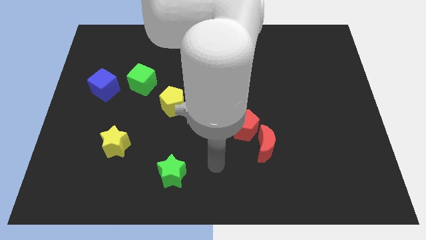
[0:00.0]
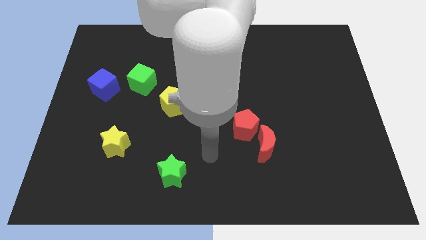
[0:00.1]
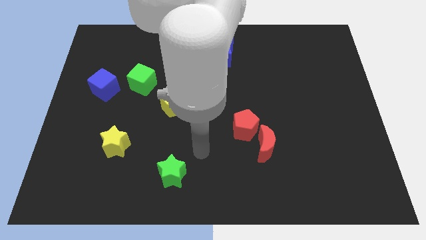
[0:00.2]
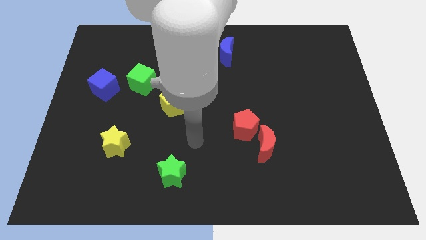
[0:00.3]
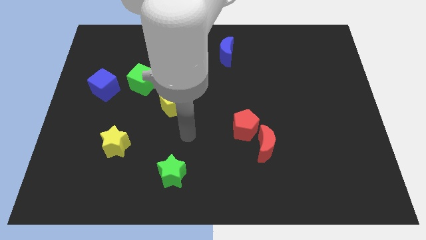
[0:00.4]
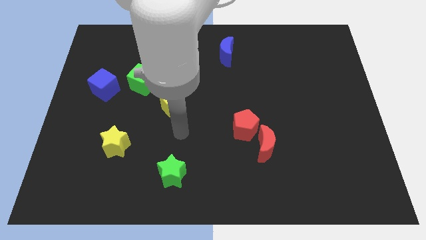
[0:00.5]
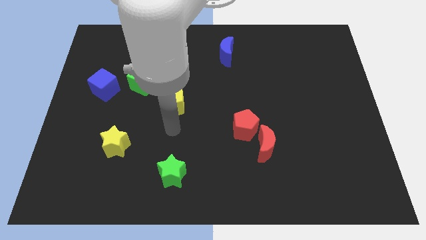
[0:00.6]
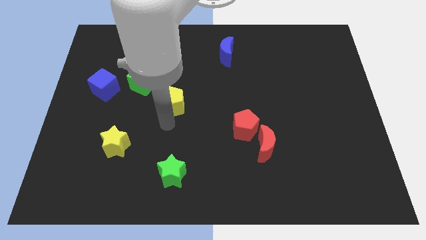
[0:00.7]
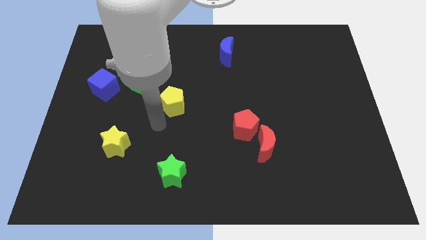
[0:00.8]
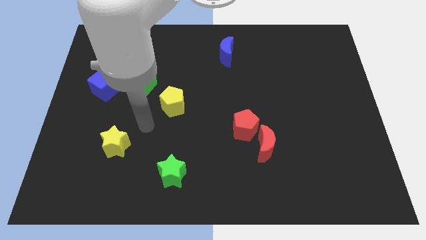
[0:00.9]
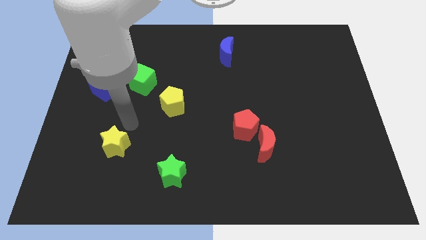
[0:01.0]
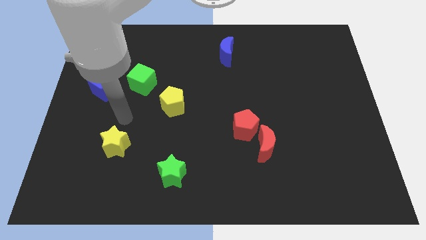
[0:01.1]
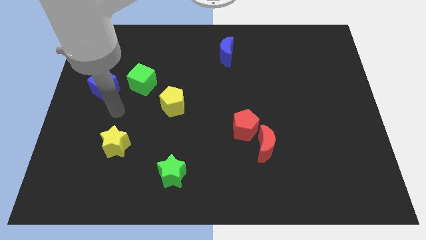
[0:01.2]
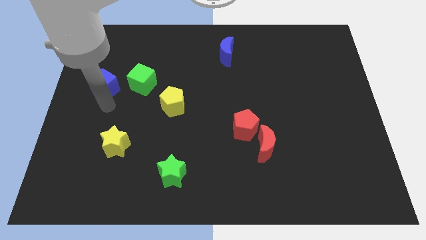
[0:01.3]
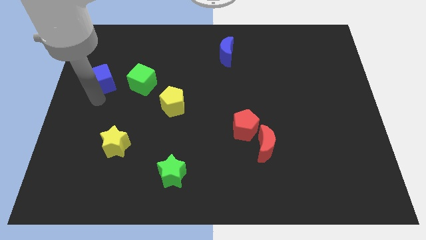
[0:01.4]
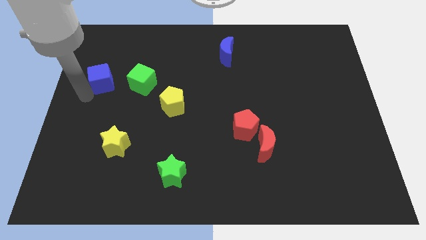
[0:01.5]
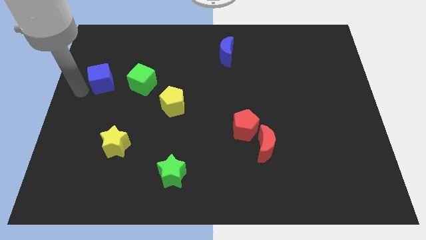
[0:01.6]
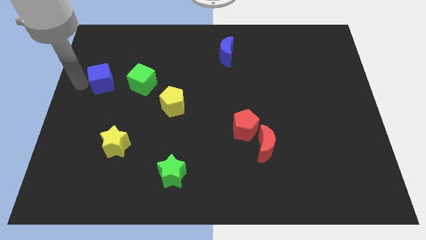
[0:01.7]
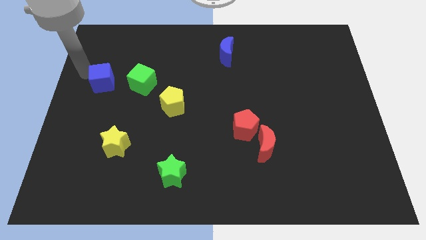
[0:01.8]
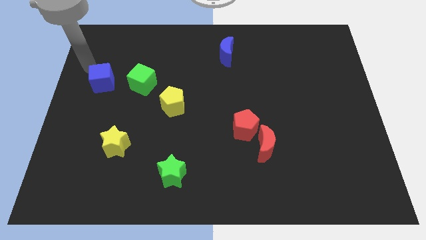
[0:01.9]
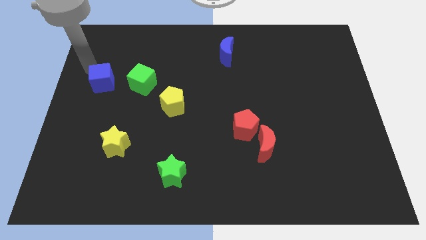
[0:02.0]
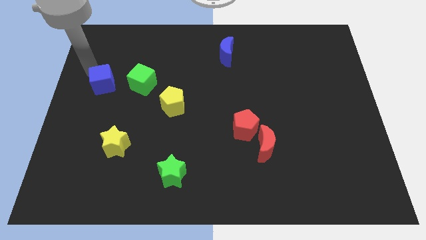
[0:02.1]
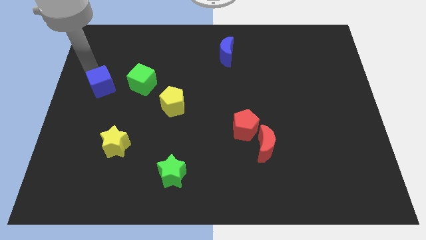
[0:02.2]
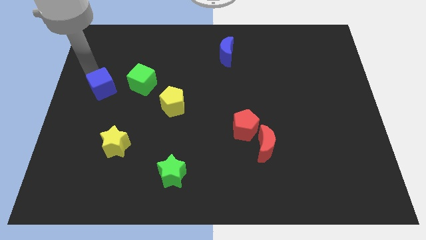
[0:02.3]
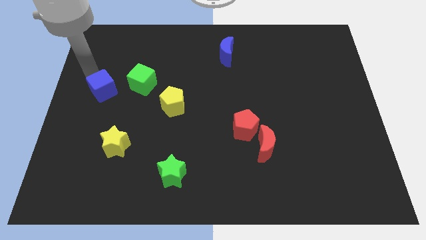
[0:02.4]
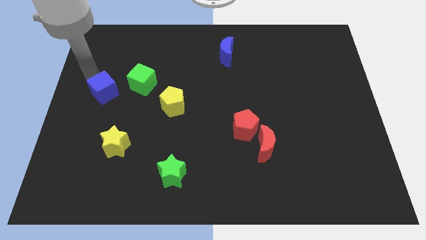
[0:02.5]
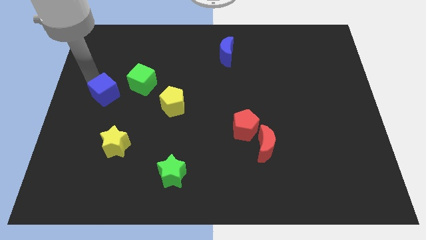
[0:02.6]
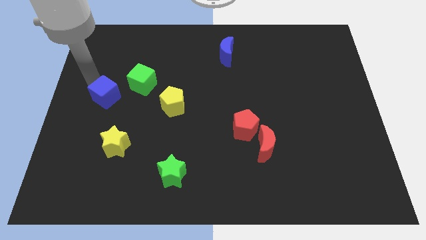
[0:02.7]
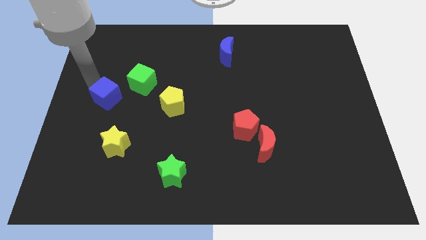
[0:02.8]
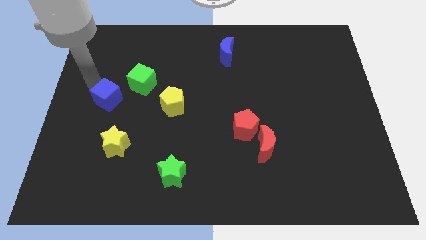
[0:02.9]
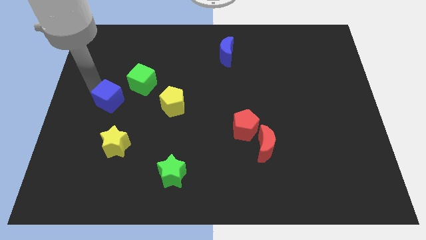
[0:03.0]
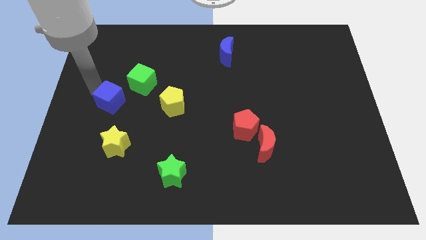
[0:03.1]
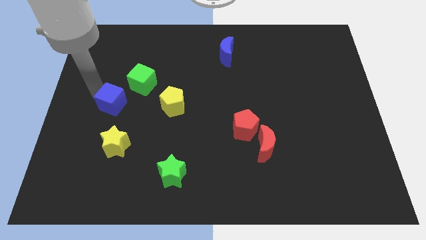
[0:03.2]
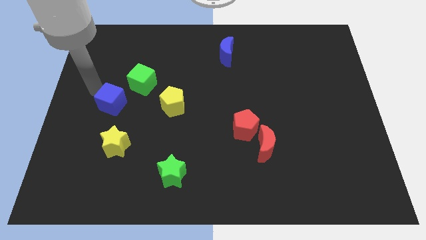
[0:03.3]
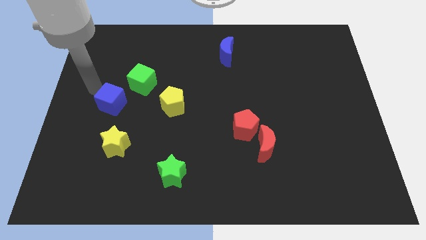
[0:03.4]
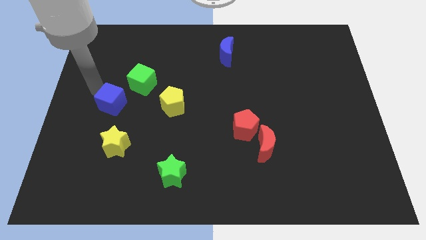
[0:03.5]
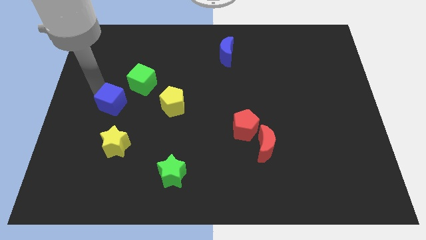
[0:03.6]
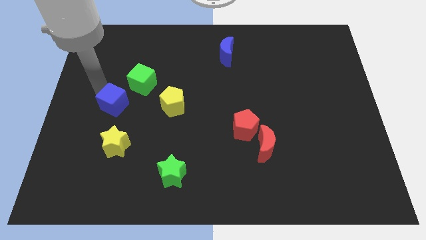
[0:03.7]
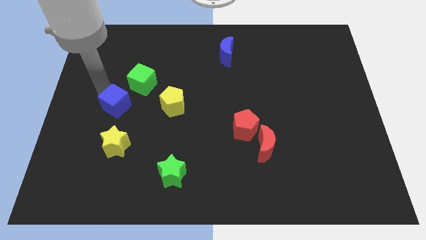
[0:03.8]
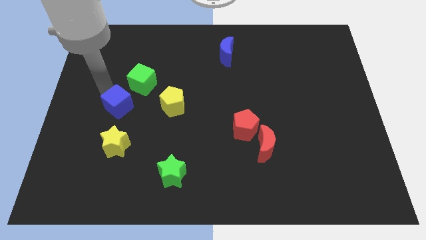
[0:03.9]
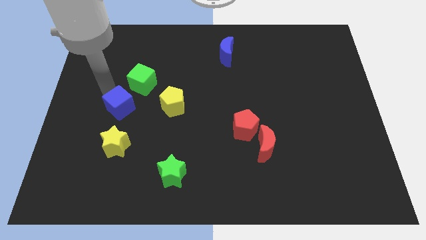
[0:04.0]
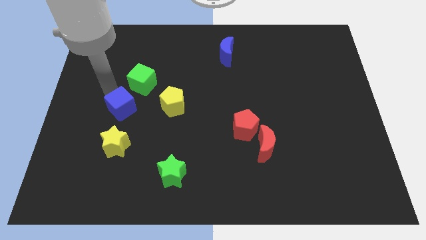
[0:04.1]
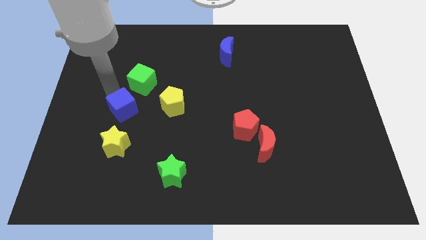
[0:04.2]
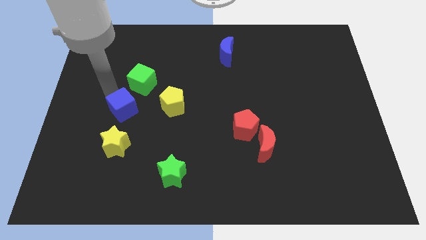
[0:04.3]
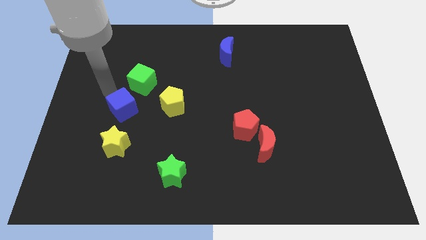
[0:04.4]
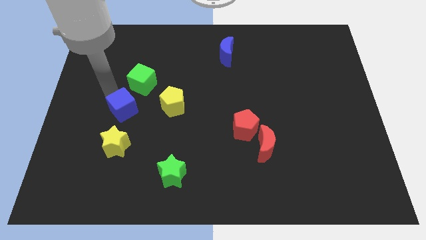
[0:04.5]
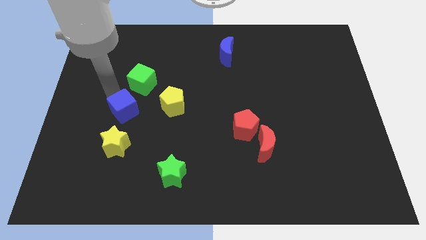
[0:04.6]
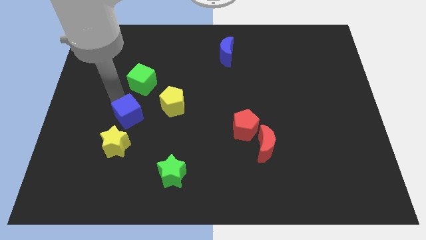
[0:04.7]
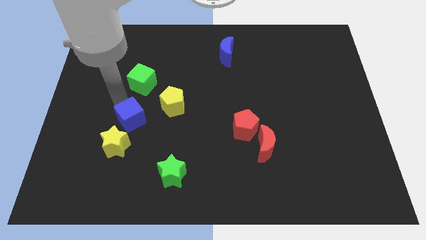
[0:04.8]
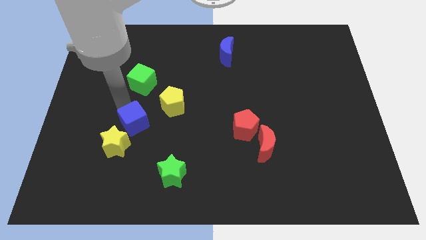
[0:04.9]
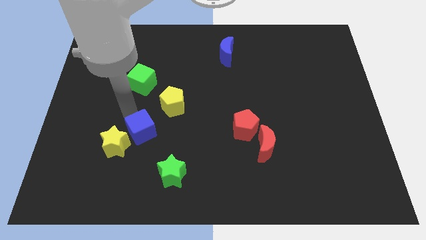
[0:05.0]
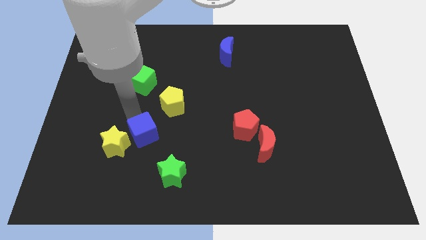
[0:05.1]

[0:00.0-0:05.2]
slide the blue cube to the top left side of the green star

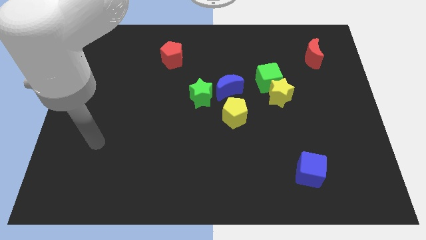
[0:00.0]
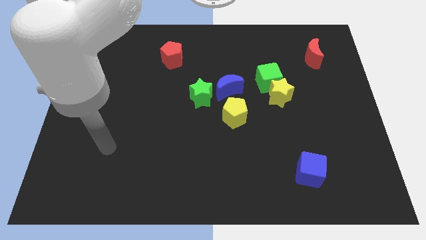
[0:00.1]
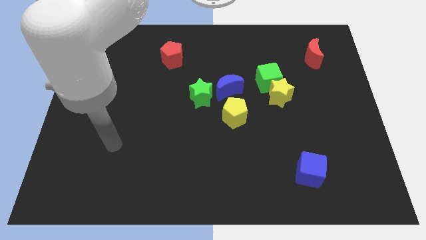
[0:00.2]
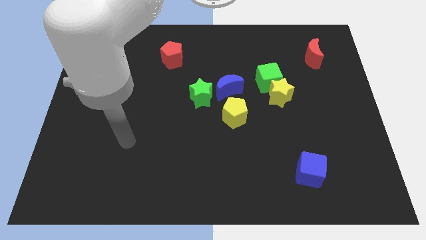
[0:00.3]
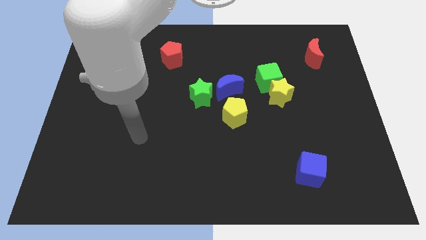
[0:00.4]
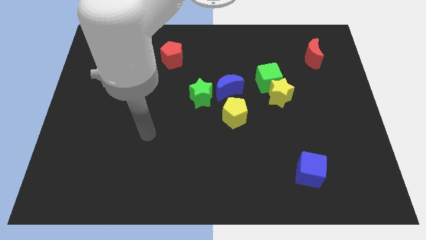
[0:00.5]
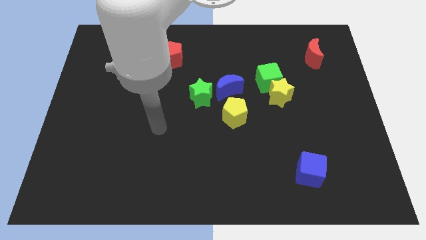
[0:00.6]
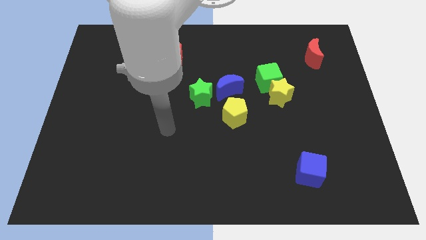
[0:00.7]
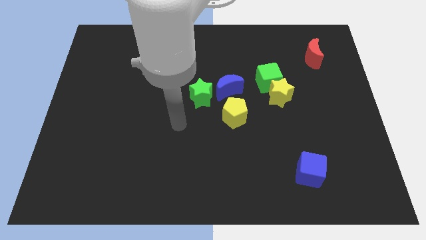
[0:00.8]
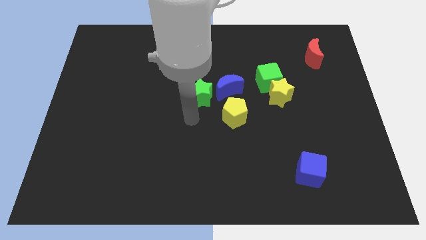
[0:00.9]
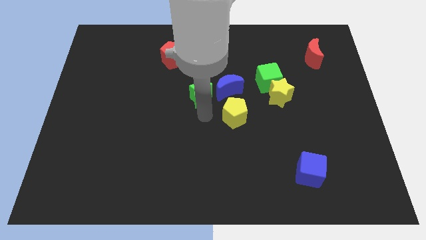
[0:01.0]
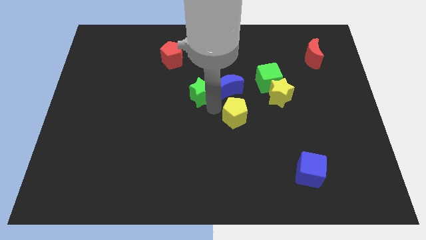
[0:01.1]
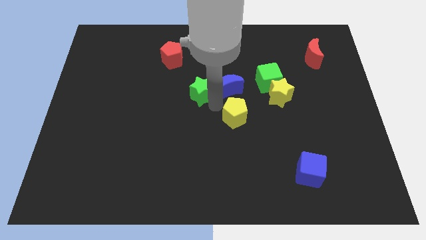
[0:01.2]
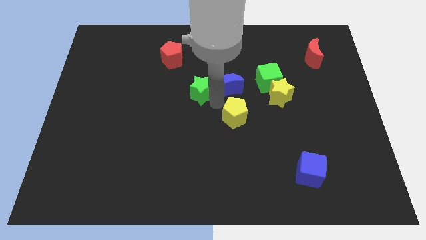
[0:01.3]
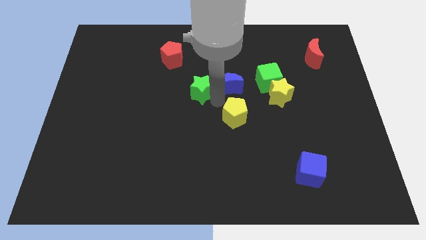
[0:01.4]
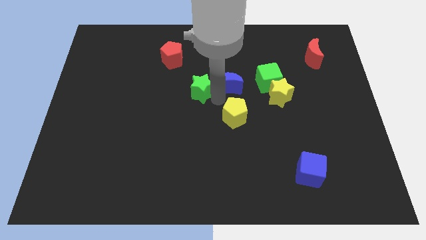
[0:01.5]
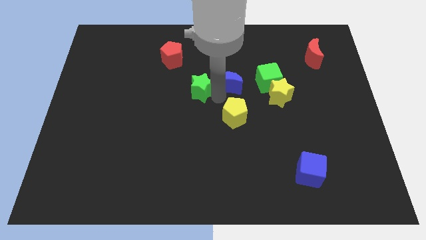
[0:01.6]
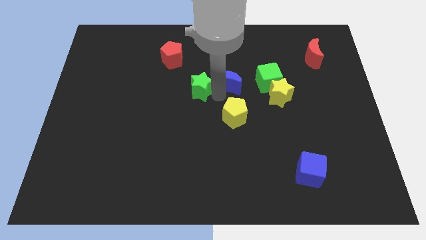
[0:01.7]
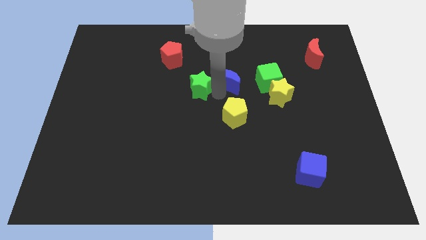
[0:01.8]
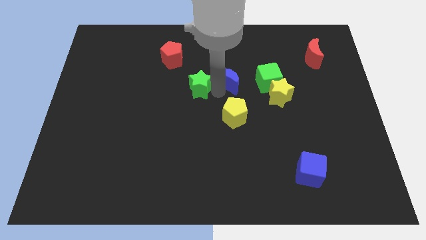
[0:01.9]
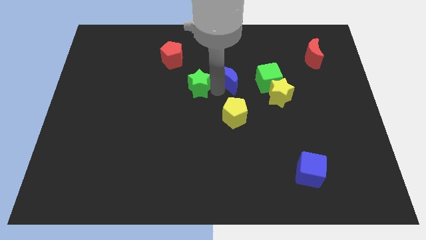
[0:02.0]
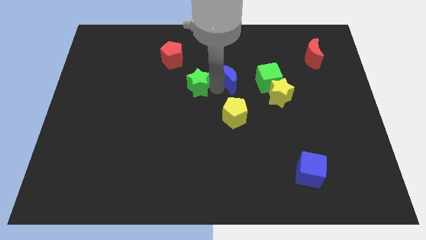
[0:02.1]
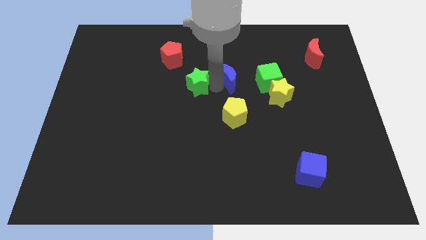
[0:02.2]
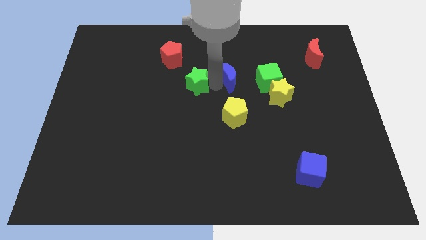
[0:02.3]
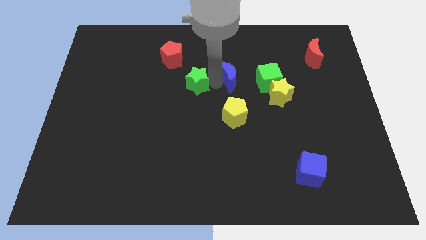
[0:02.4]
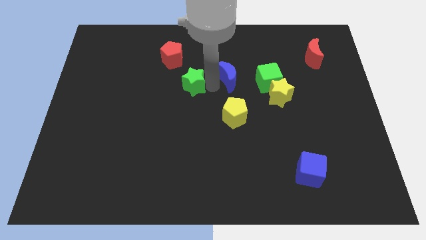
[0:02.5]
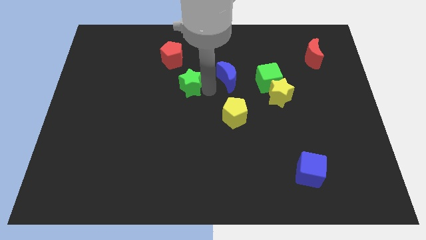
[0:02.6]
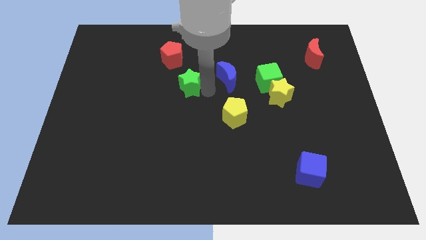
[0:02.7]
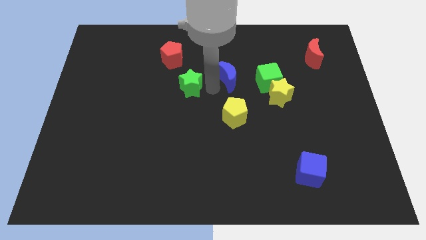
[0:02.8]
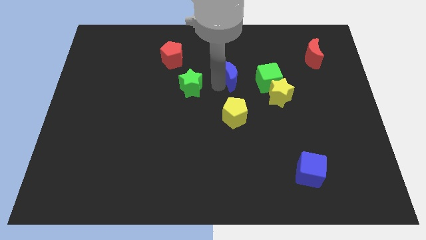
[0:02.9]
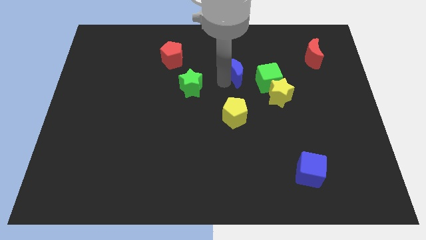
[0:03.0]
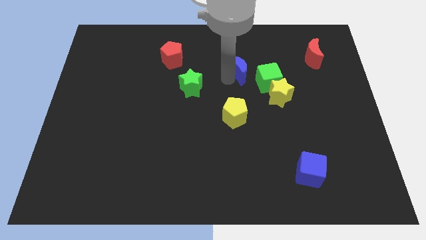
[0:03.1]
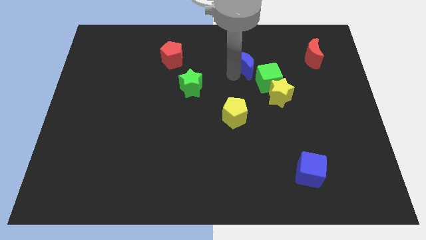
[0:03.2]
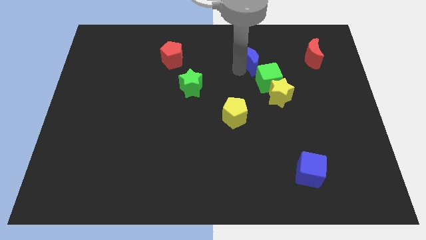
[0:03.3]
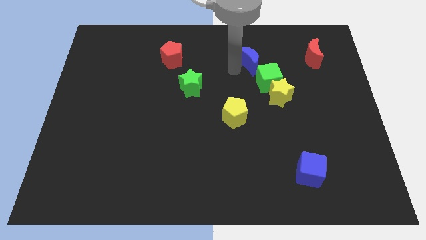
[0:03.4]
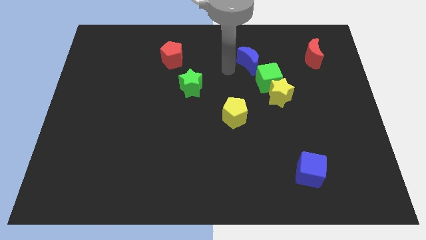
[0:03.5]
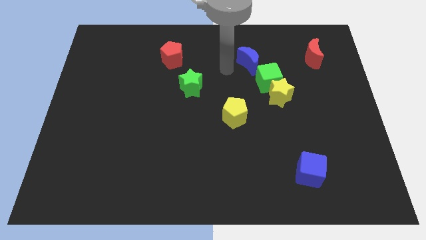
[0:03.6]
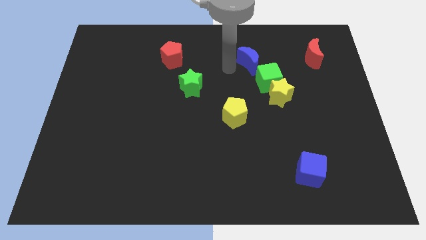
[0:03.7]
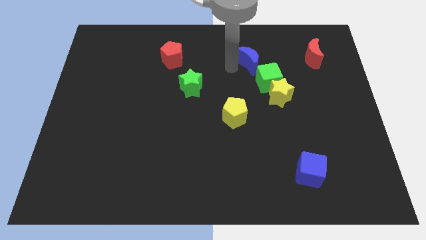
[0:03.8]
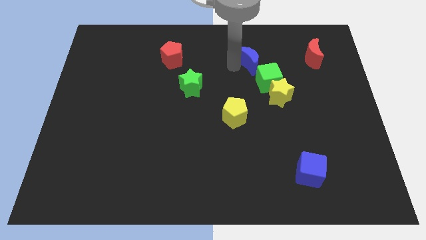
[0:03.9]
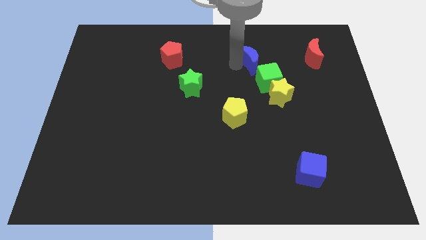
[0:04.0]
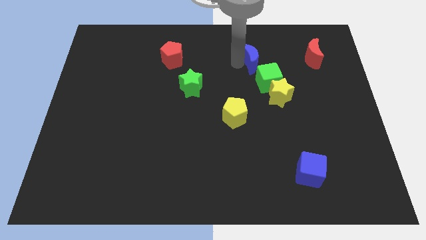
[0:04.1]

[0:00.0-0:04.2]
push the blue moon left of the red moon
